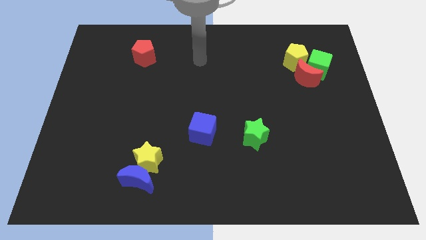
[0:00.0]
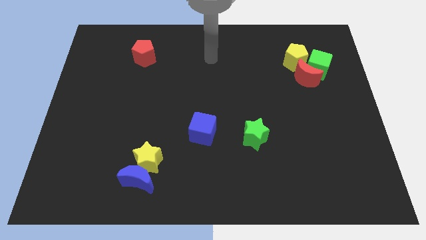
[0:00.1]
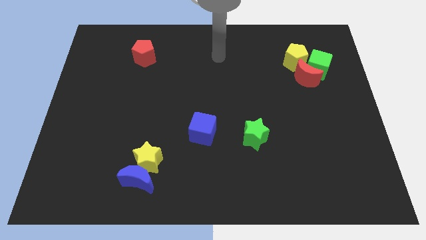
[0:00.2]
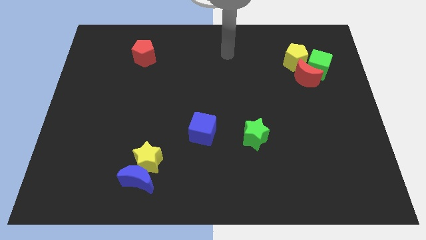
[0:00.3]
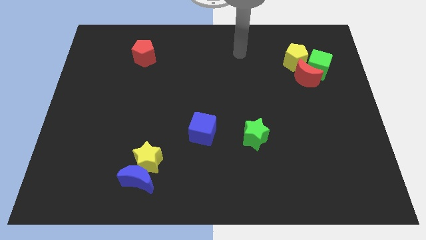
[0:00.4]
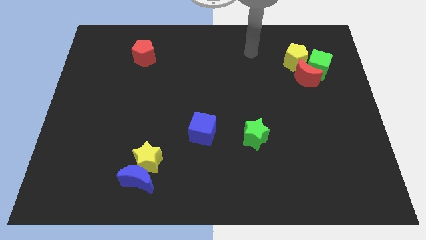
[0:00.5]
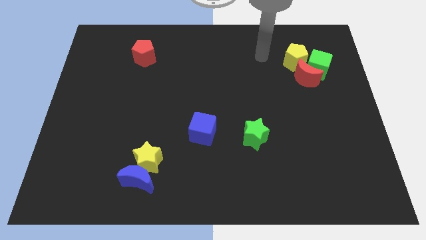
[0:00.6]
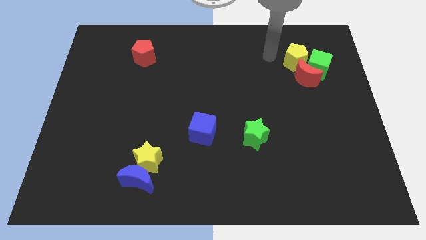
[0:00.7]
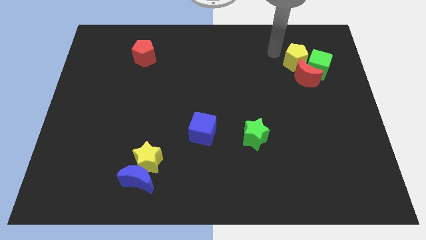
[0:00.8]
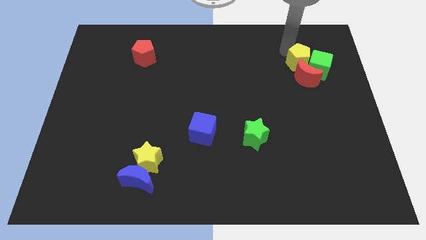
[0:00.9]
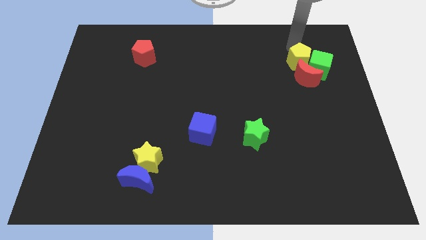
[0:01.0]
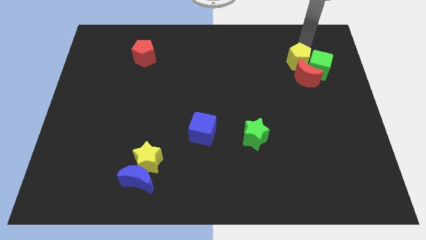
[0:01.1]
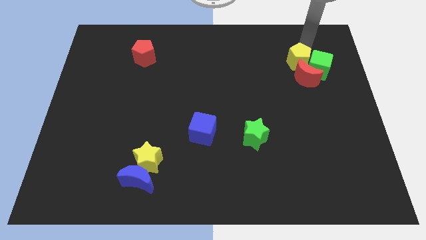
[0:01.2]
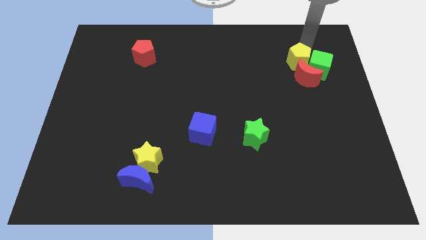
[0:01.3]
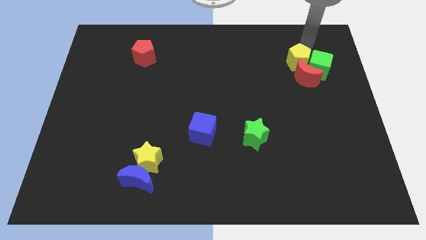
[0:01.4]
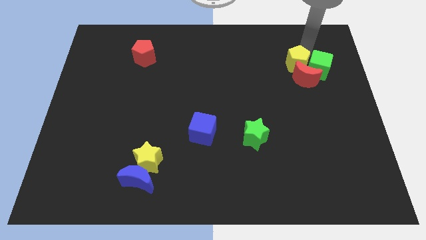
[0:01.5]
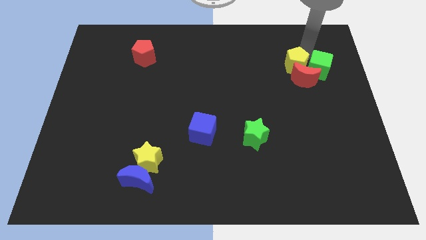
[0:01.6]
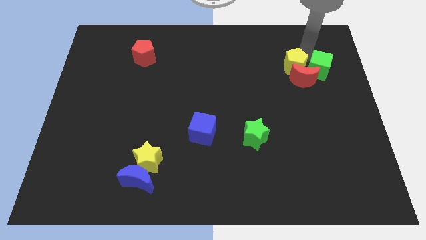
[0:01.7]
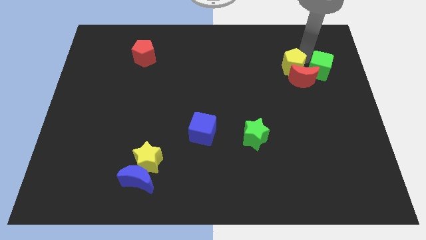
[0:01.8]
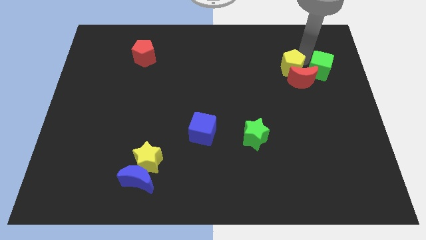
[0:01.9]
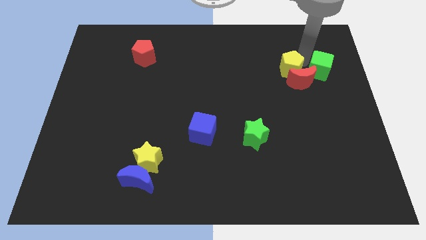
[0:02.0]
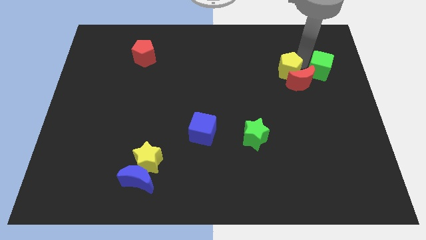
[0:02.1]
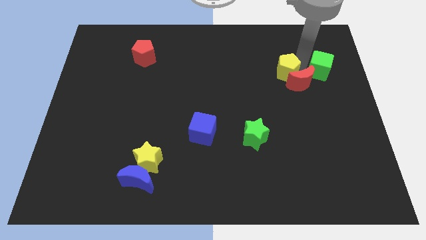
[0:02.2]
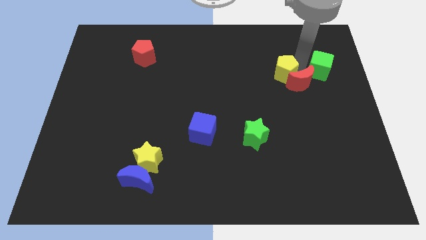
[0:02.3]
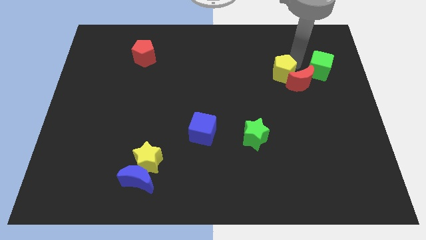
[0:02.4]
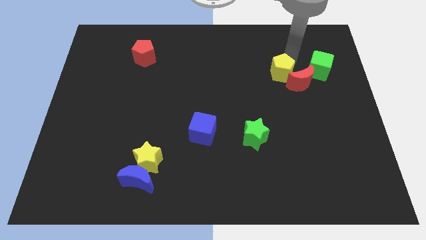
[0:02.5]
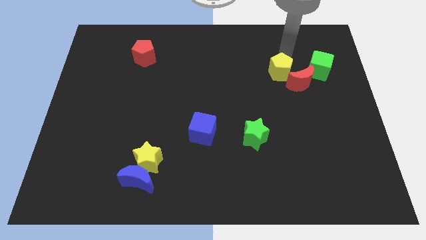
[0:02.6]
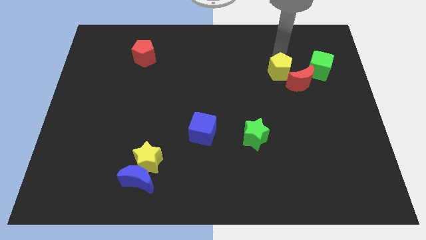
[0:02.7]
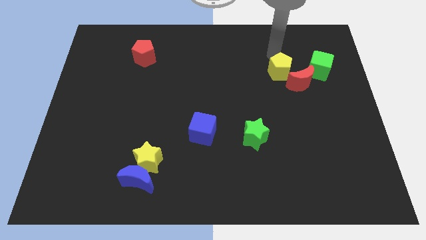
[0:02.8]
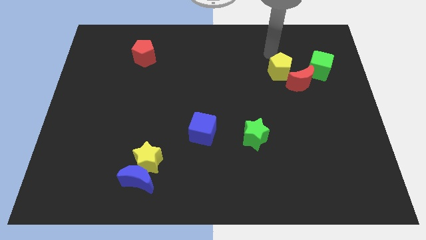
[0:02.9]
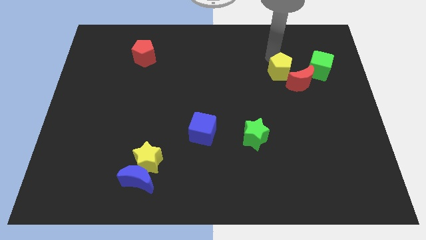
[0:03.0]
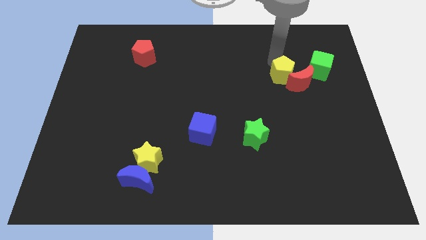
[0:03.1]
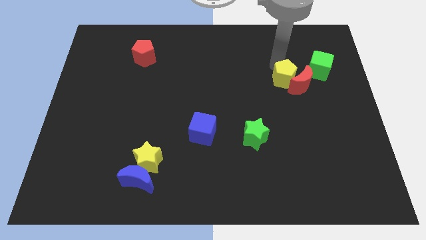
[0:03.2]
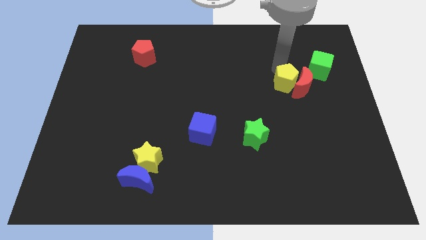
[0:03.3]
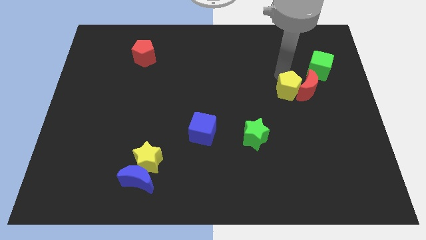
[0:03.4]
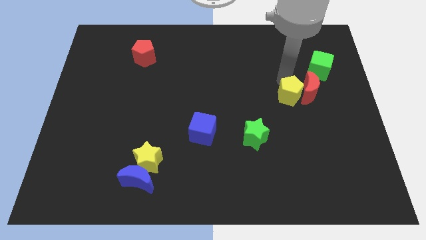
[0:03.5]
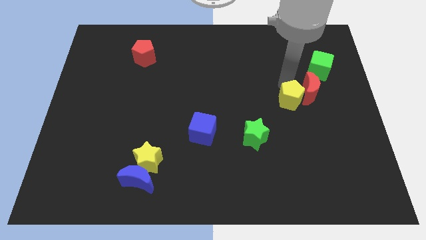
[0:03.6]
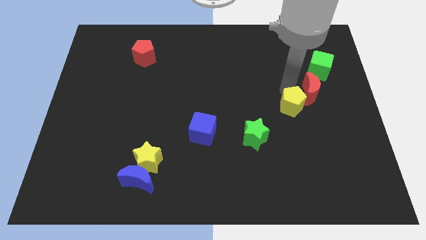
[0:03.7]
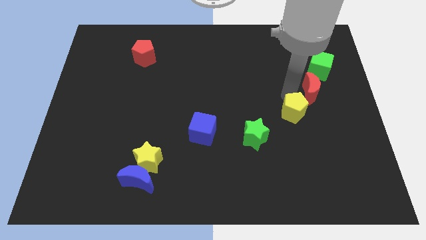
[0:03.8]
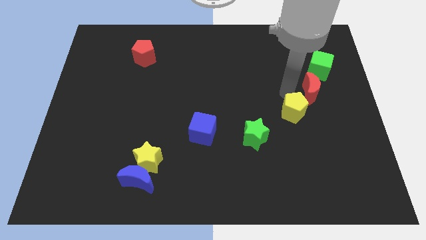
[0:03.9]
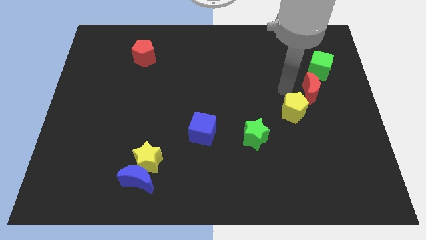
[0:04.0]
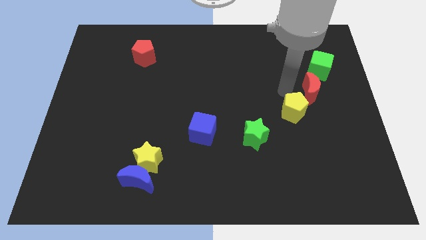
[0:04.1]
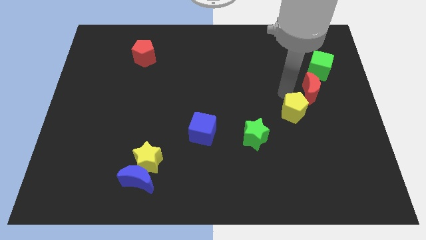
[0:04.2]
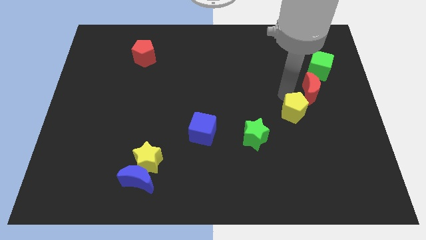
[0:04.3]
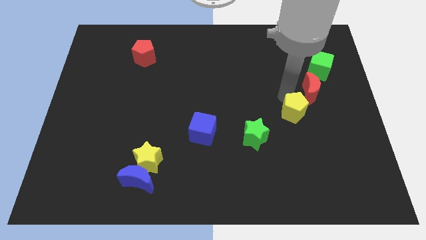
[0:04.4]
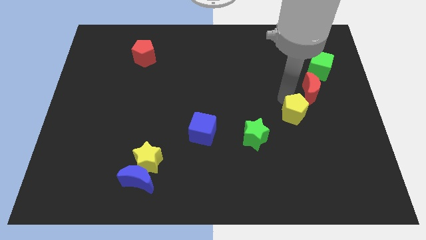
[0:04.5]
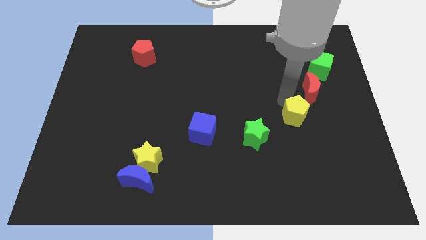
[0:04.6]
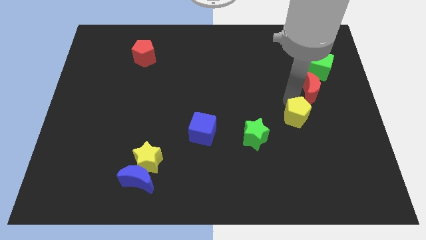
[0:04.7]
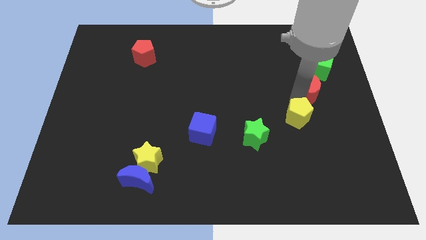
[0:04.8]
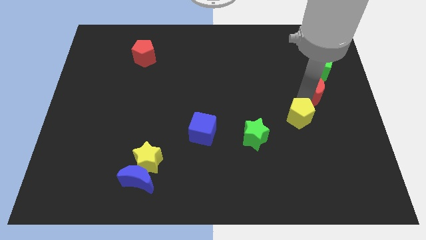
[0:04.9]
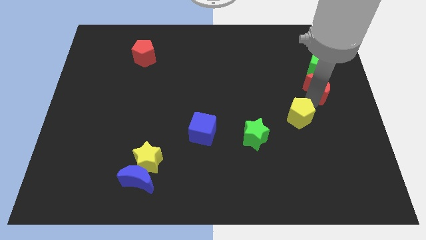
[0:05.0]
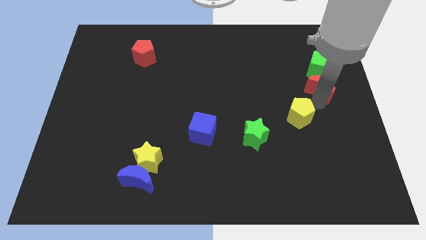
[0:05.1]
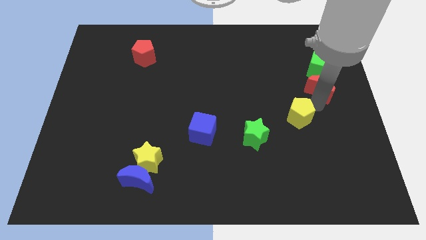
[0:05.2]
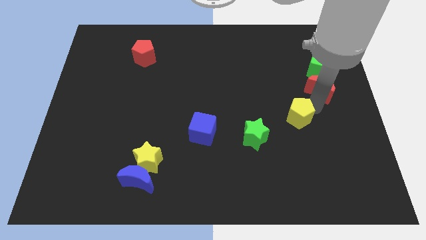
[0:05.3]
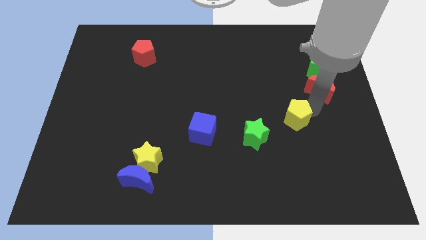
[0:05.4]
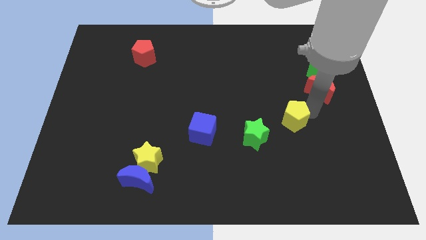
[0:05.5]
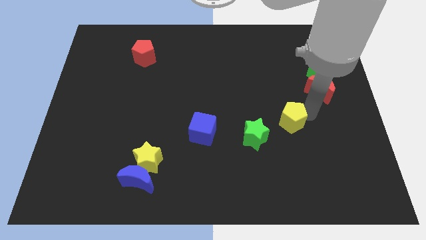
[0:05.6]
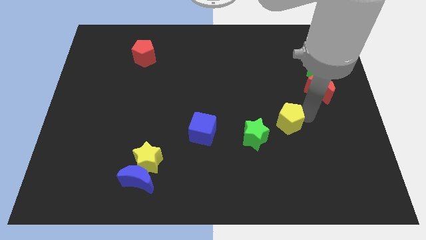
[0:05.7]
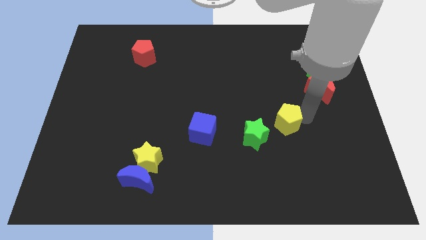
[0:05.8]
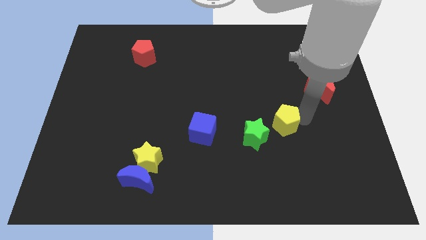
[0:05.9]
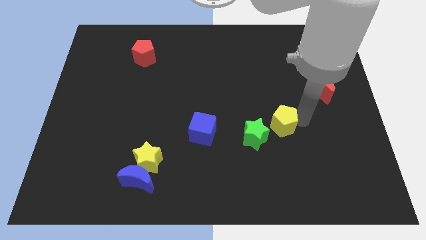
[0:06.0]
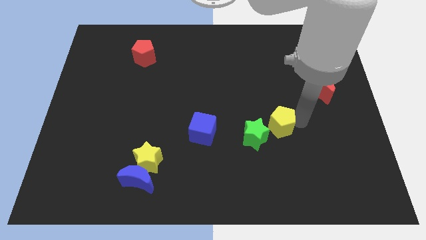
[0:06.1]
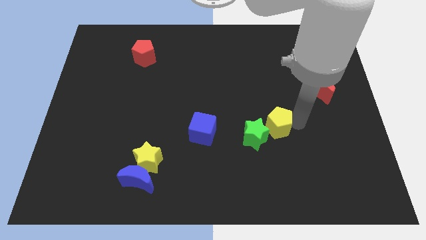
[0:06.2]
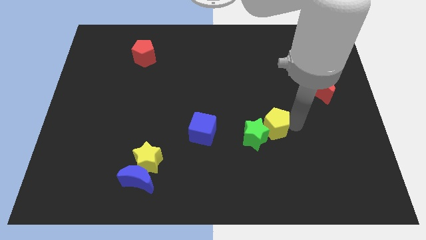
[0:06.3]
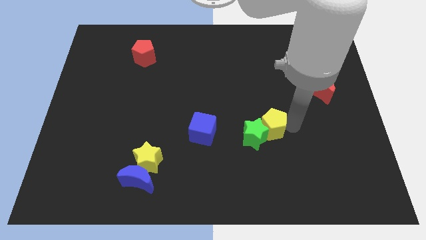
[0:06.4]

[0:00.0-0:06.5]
slide the yellow pentagon to the right side of the blue cube
